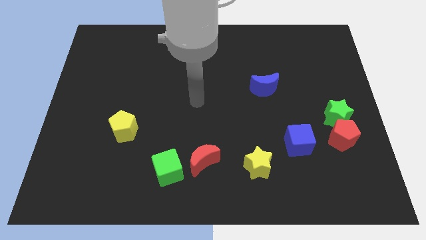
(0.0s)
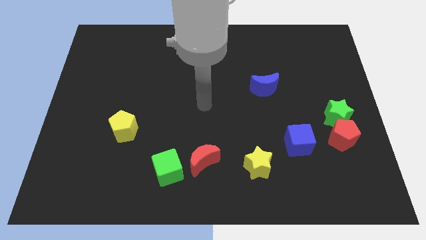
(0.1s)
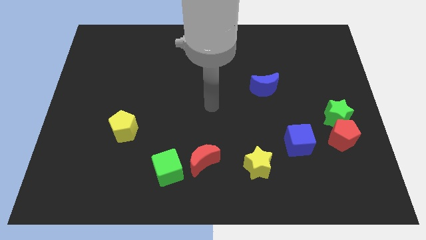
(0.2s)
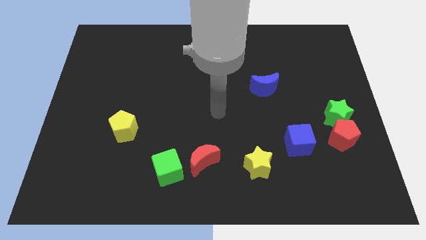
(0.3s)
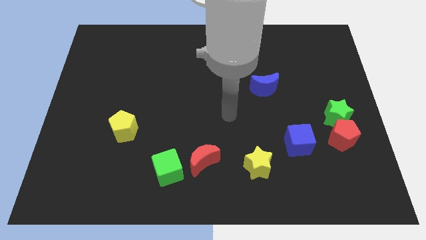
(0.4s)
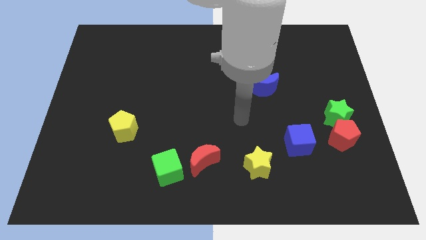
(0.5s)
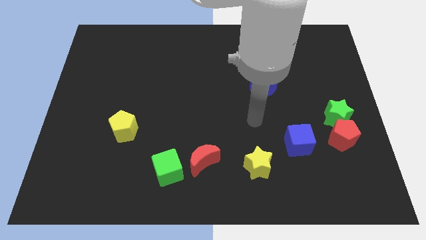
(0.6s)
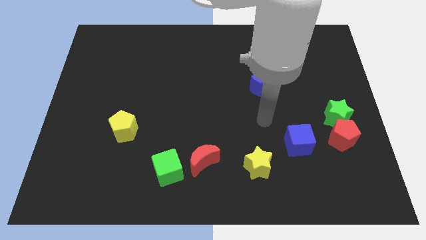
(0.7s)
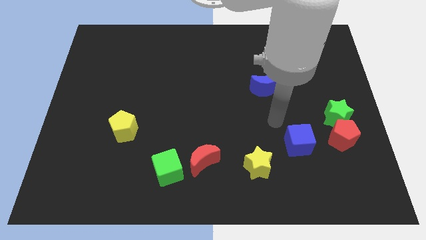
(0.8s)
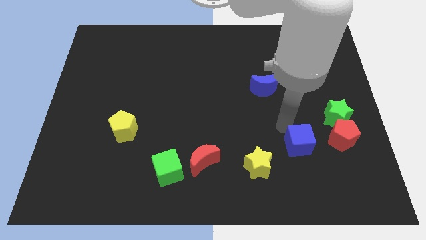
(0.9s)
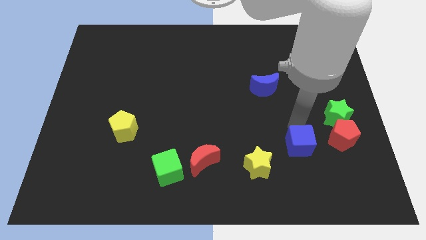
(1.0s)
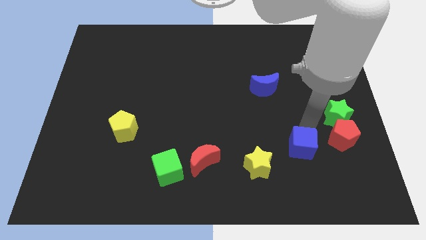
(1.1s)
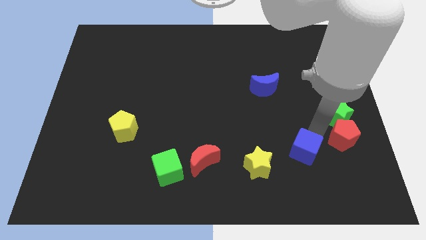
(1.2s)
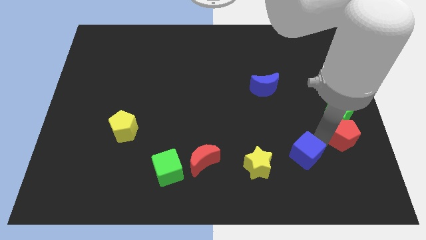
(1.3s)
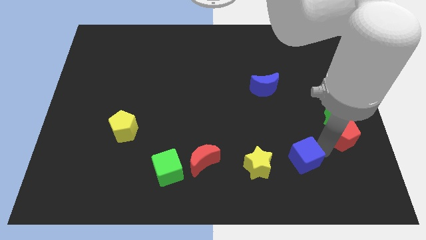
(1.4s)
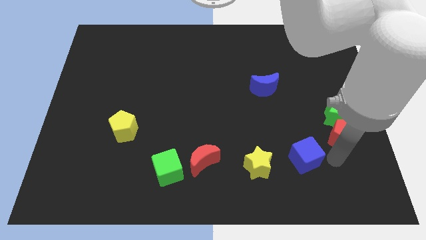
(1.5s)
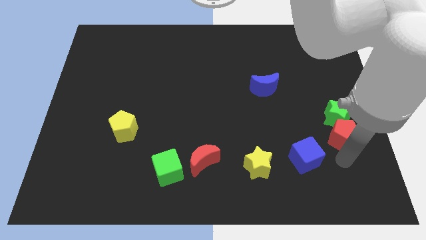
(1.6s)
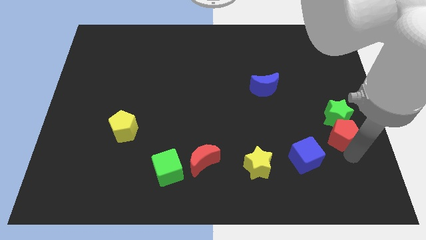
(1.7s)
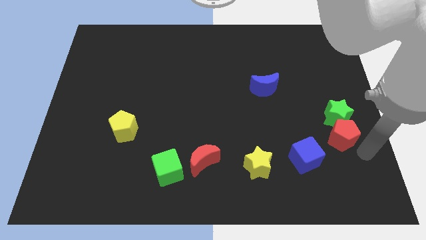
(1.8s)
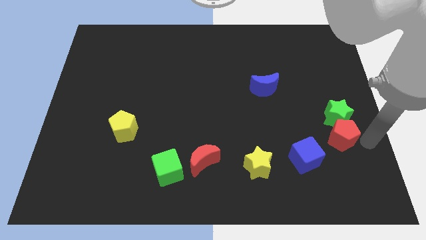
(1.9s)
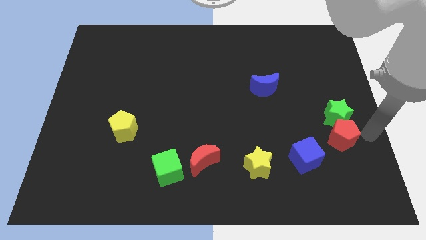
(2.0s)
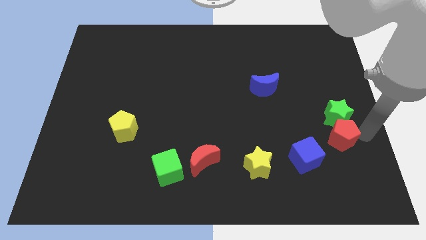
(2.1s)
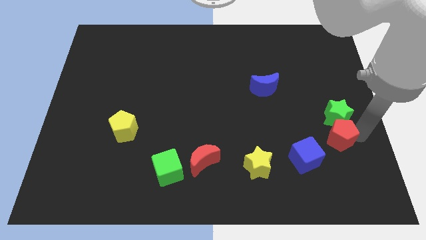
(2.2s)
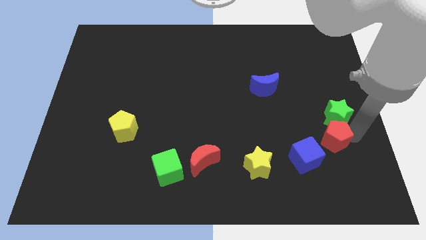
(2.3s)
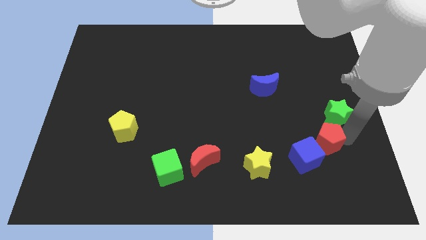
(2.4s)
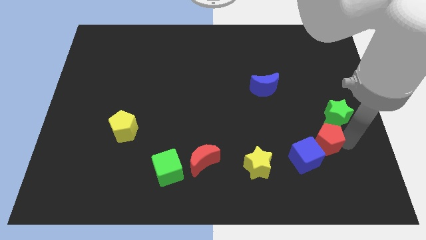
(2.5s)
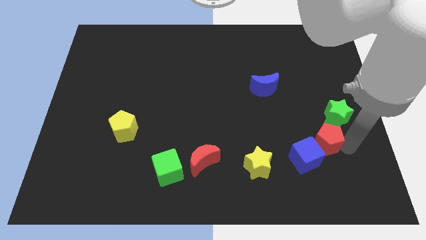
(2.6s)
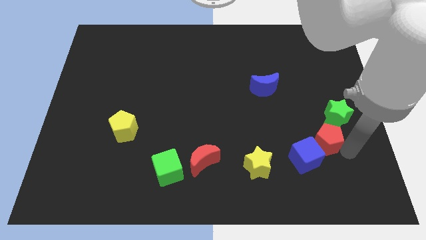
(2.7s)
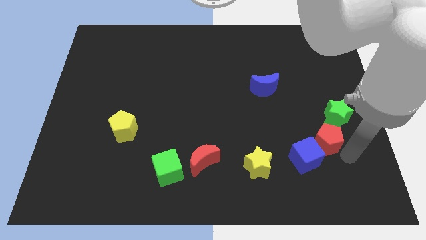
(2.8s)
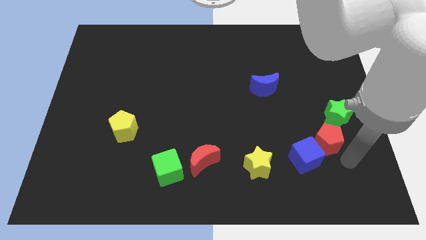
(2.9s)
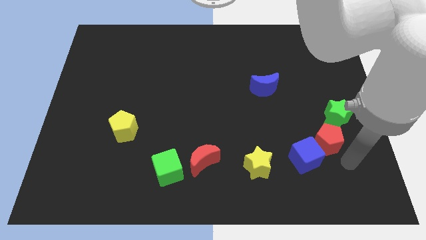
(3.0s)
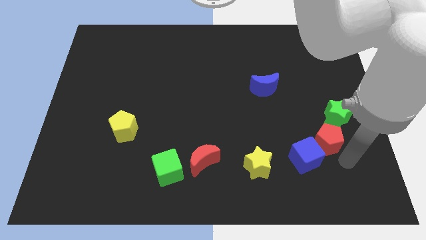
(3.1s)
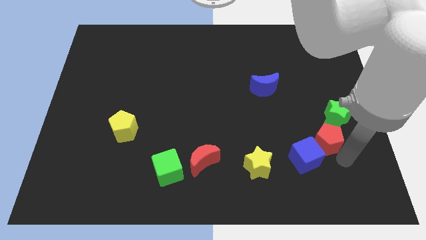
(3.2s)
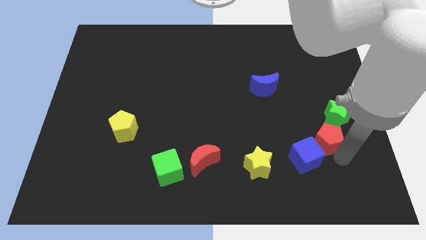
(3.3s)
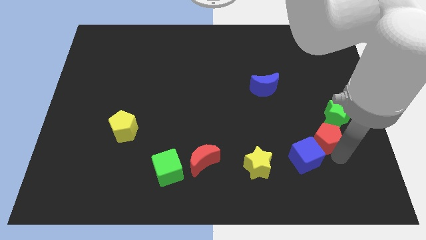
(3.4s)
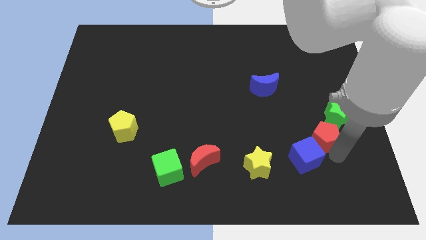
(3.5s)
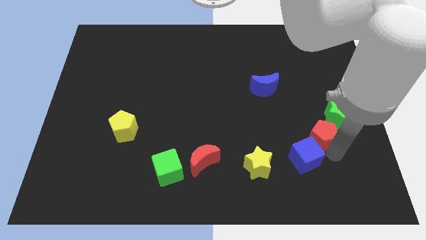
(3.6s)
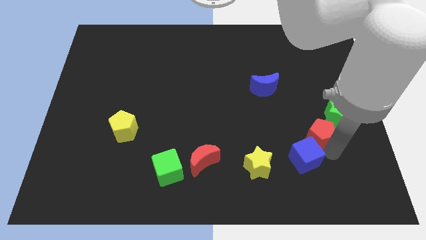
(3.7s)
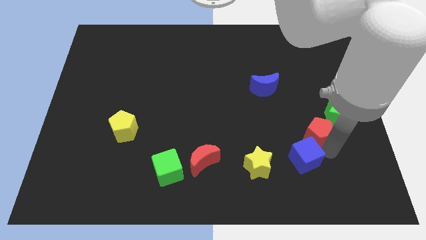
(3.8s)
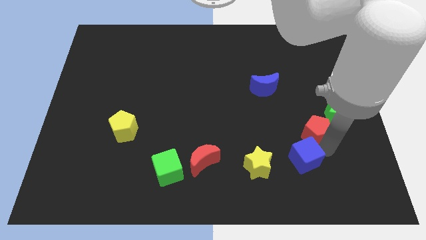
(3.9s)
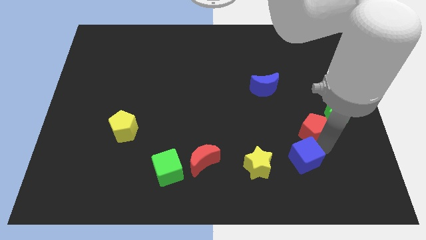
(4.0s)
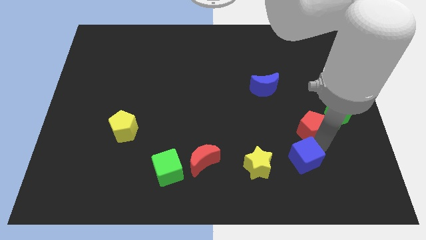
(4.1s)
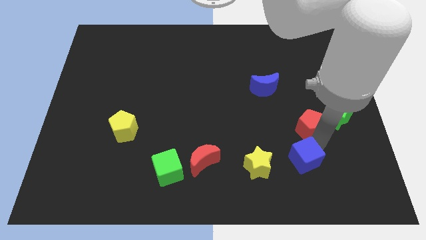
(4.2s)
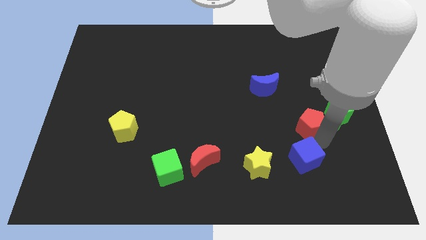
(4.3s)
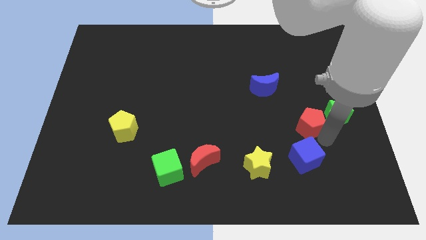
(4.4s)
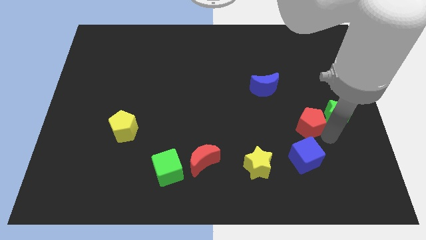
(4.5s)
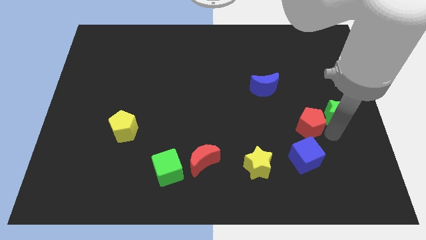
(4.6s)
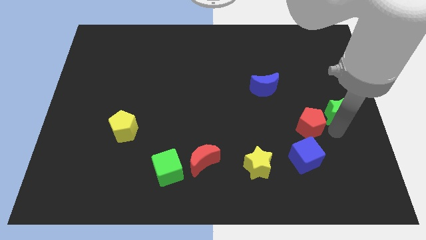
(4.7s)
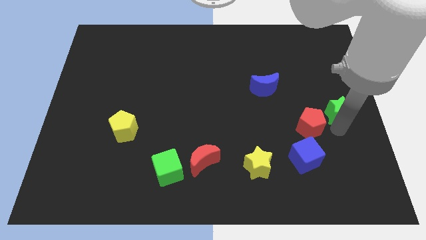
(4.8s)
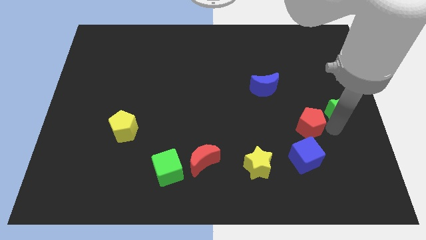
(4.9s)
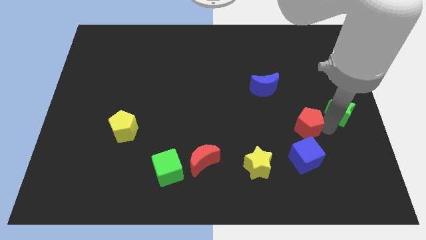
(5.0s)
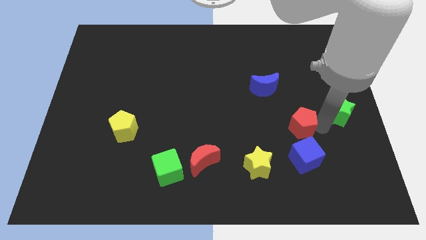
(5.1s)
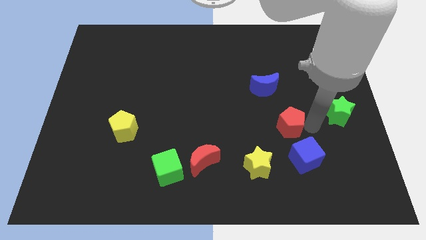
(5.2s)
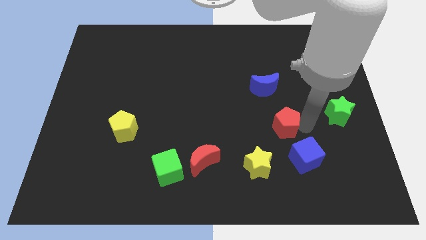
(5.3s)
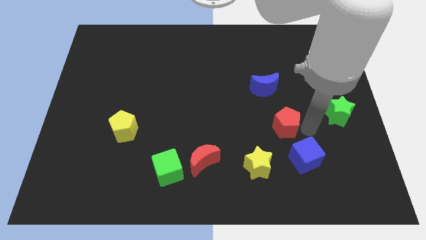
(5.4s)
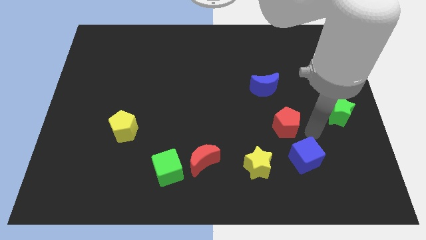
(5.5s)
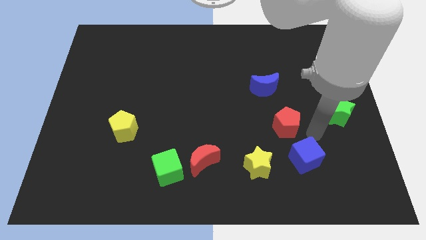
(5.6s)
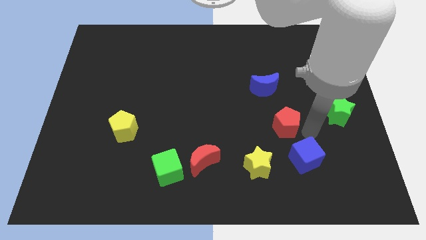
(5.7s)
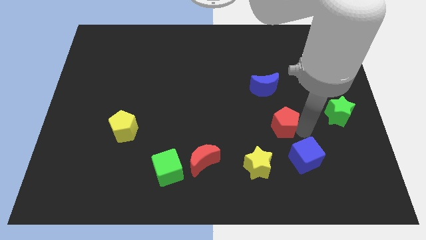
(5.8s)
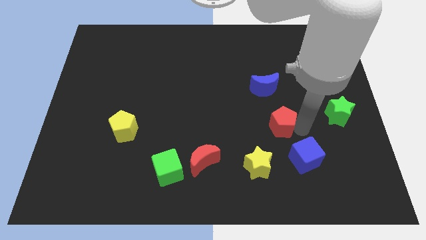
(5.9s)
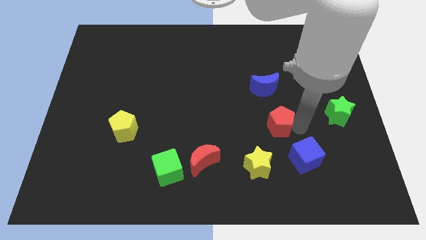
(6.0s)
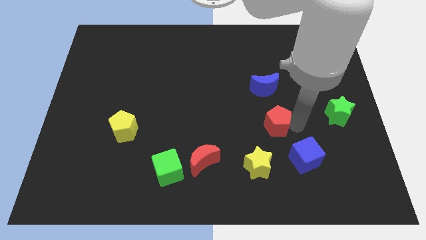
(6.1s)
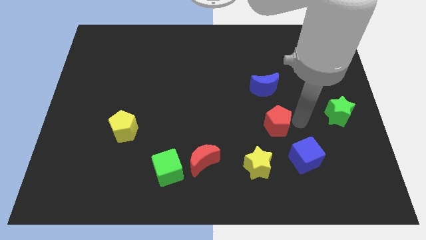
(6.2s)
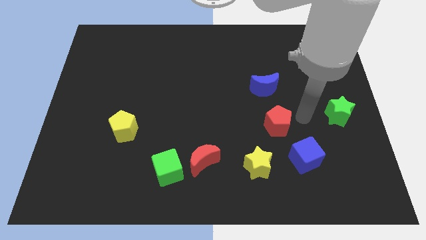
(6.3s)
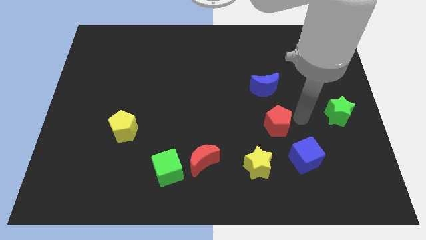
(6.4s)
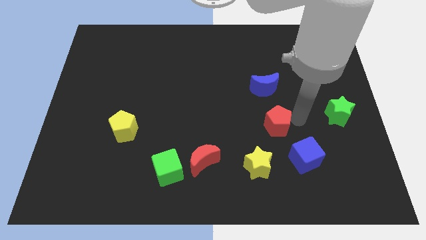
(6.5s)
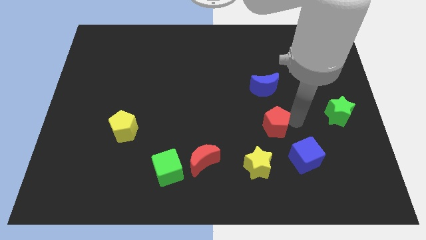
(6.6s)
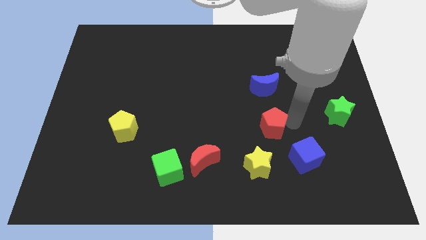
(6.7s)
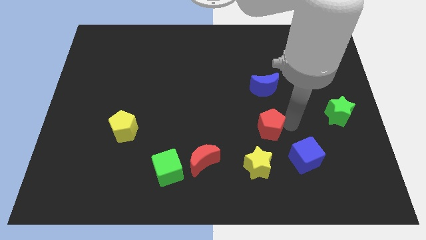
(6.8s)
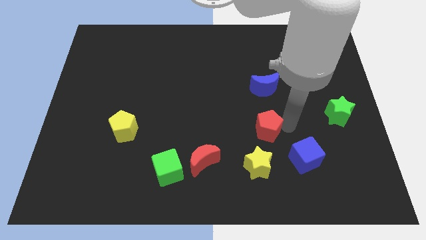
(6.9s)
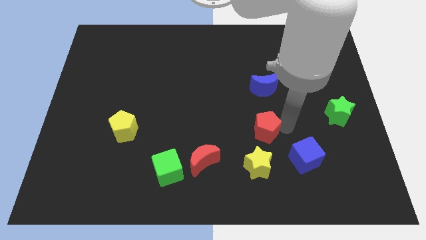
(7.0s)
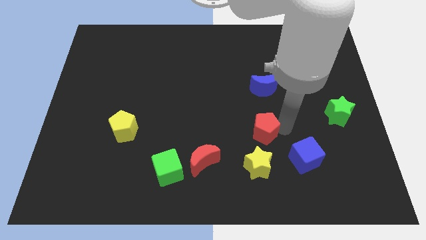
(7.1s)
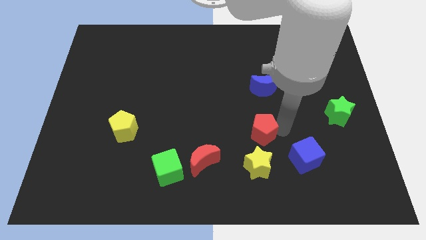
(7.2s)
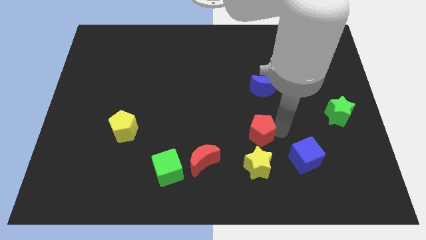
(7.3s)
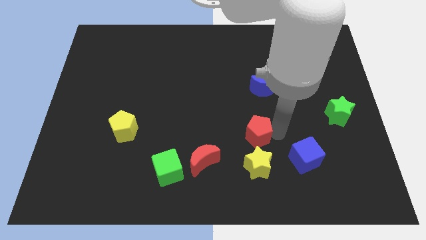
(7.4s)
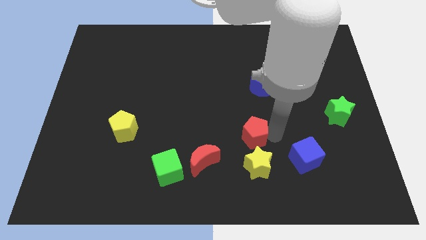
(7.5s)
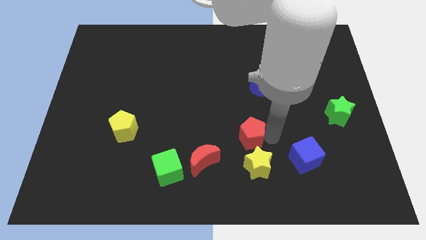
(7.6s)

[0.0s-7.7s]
push the red pentagon to the left

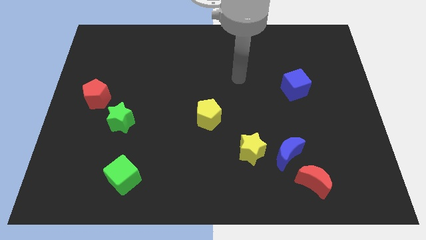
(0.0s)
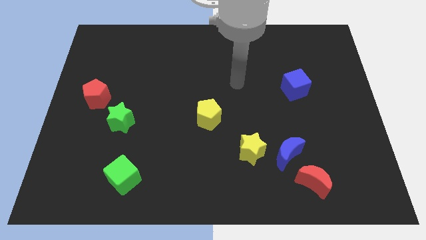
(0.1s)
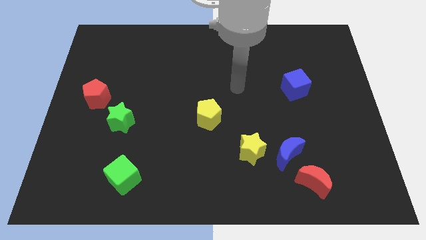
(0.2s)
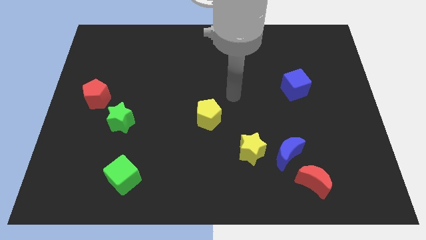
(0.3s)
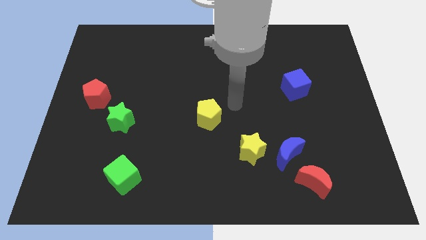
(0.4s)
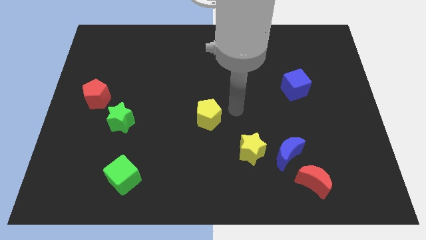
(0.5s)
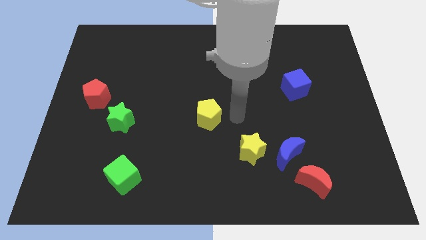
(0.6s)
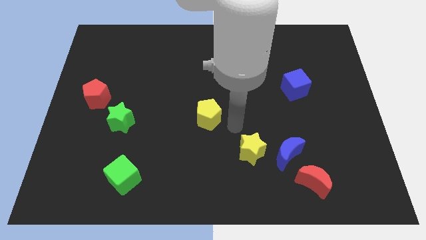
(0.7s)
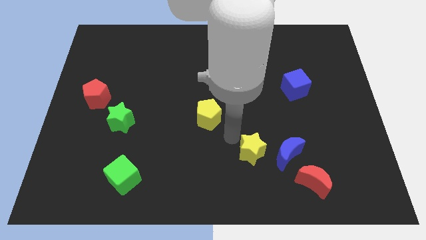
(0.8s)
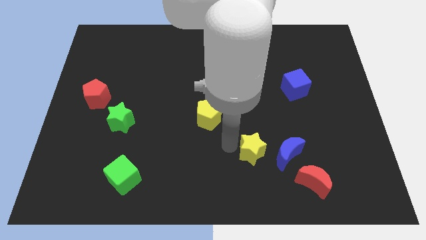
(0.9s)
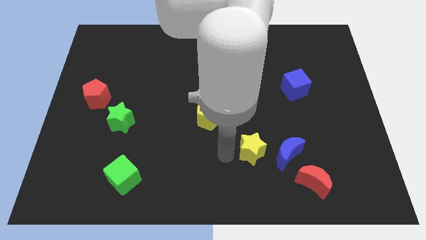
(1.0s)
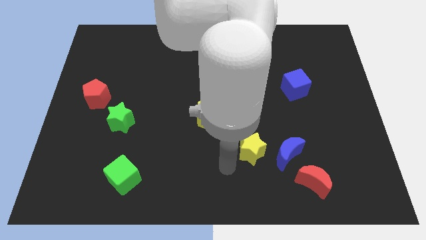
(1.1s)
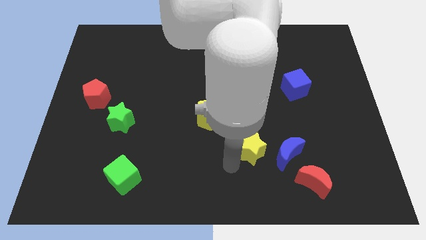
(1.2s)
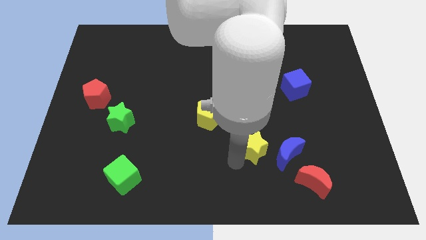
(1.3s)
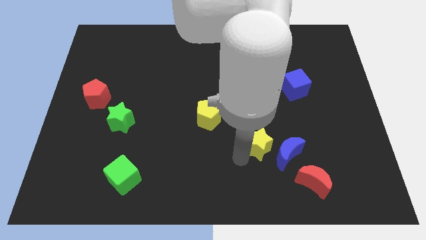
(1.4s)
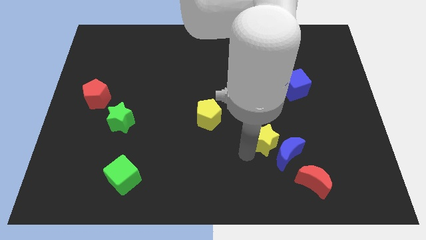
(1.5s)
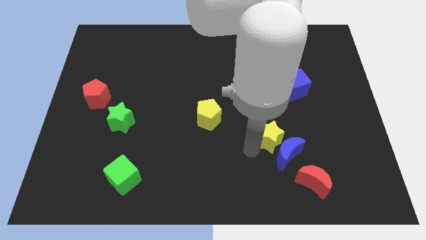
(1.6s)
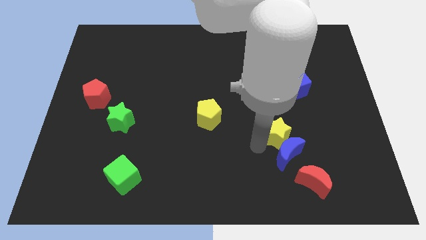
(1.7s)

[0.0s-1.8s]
move the yellow star slightly up and to the right diagonally
